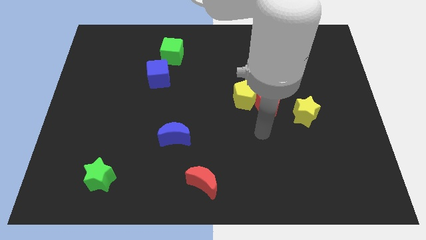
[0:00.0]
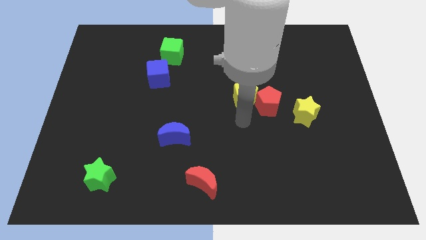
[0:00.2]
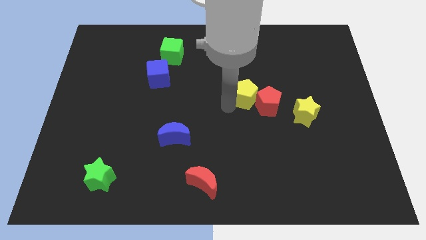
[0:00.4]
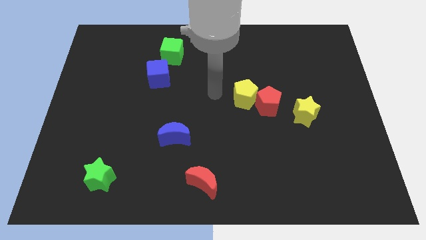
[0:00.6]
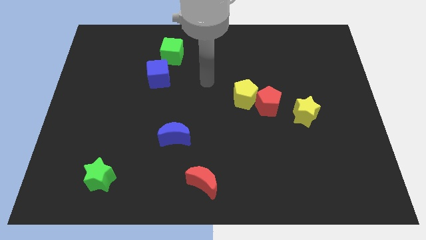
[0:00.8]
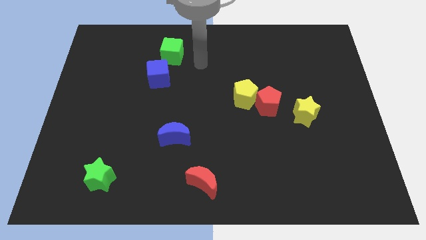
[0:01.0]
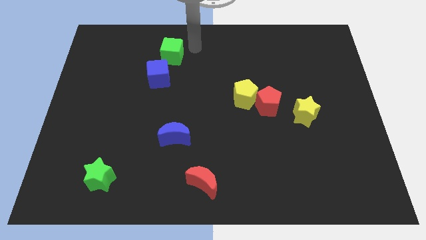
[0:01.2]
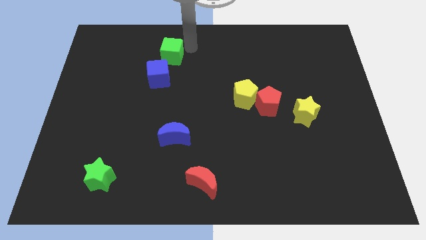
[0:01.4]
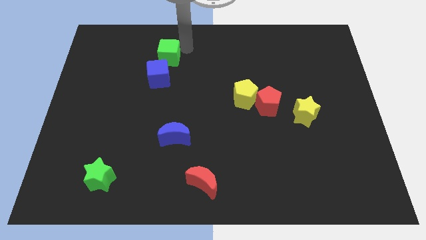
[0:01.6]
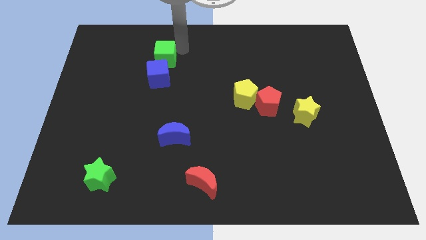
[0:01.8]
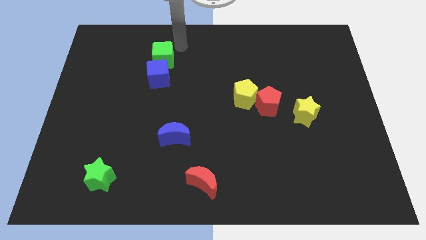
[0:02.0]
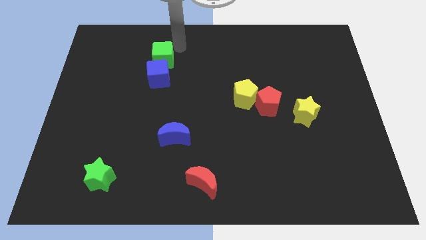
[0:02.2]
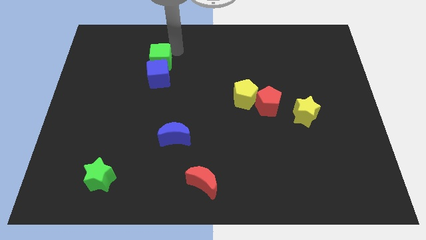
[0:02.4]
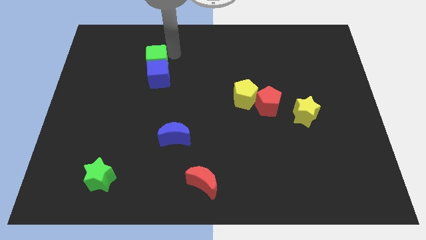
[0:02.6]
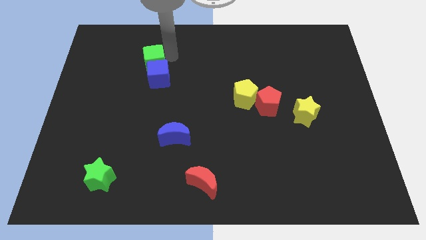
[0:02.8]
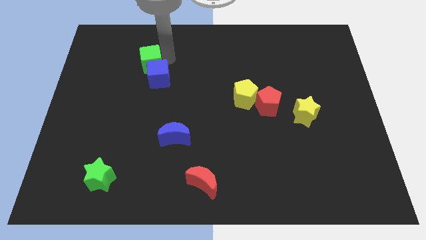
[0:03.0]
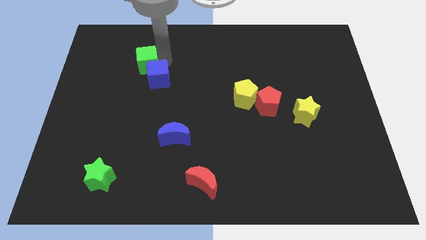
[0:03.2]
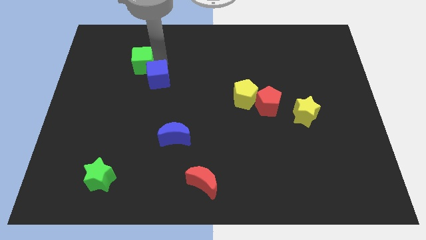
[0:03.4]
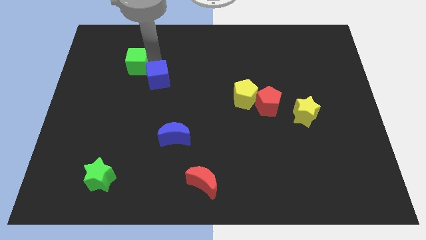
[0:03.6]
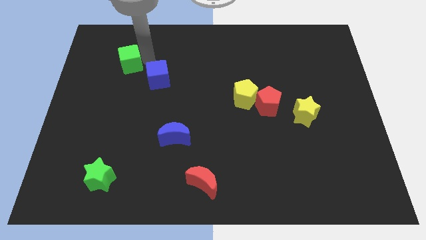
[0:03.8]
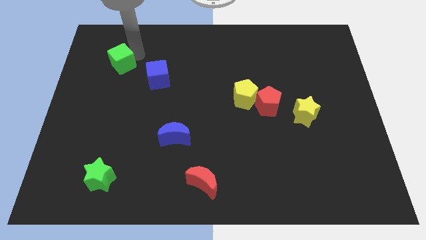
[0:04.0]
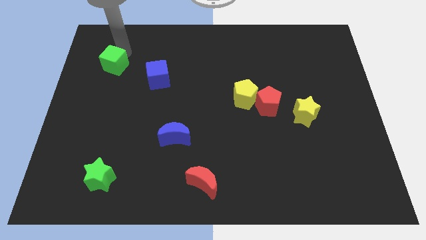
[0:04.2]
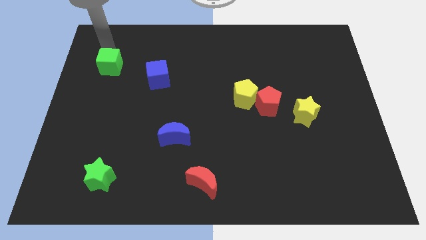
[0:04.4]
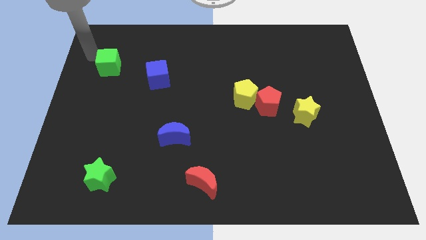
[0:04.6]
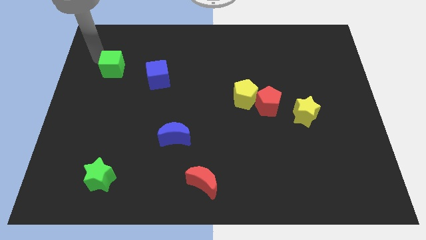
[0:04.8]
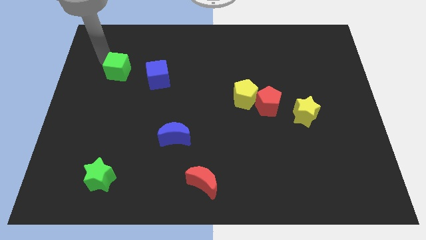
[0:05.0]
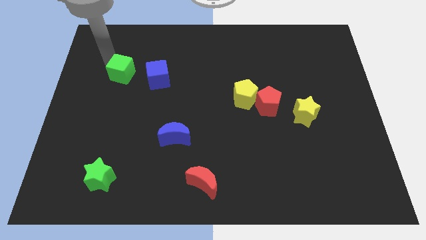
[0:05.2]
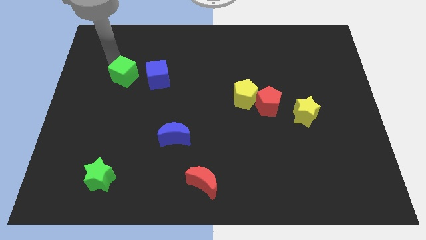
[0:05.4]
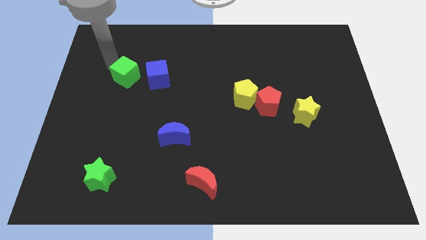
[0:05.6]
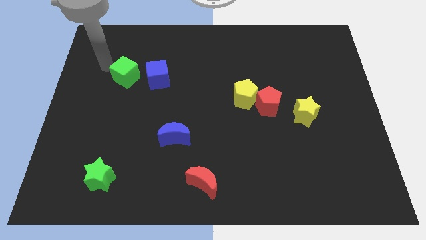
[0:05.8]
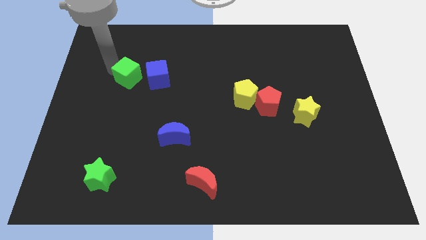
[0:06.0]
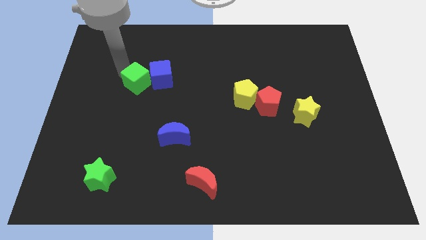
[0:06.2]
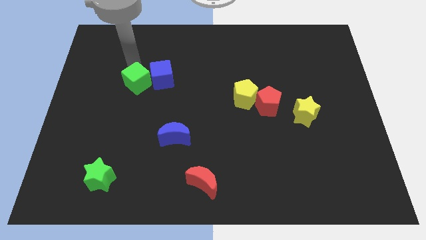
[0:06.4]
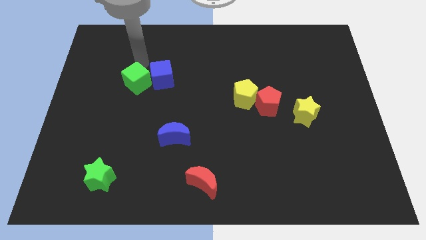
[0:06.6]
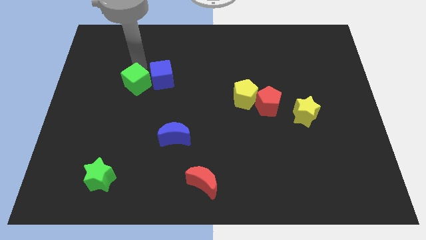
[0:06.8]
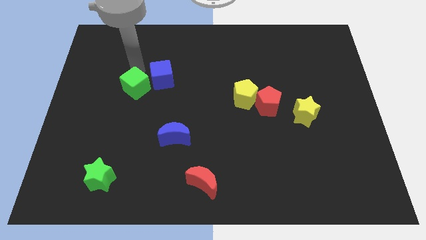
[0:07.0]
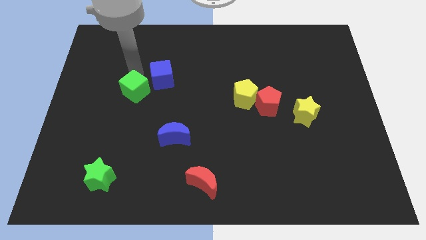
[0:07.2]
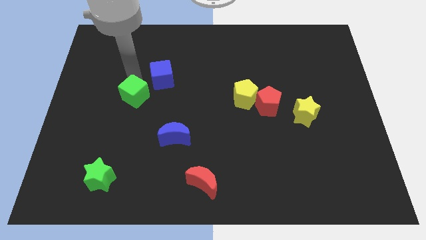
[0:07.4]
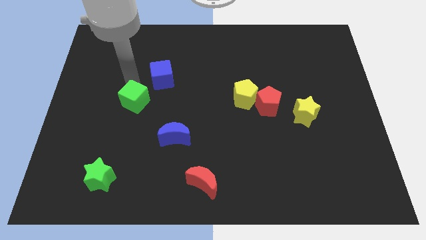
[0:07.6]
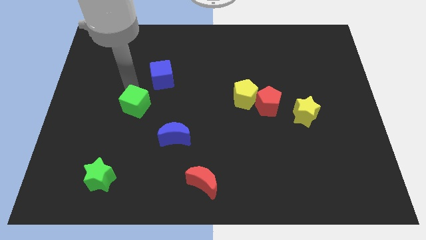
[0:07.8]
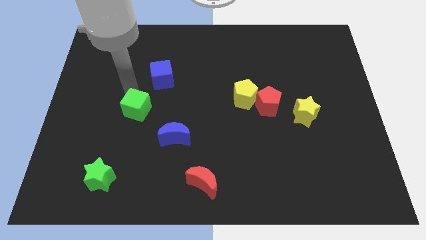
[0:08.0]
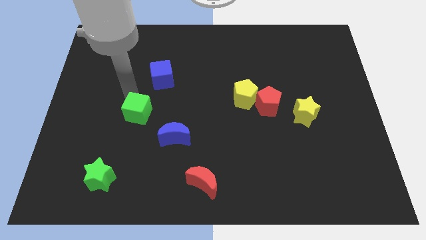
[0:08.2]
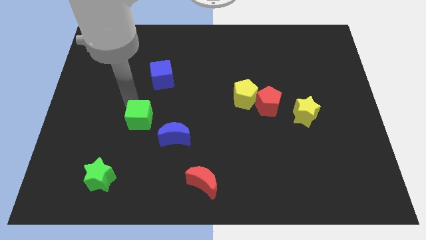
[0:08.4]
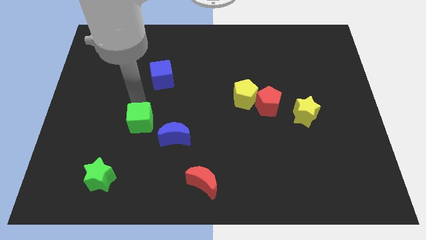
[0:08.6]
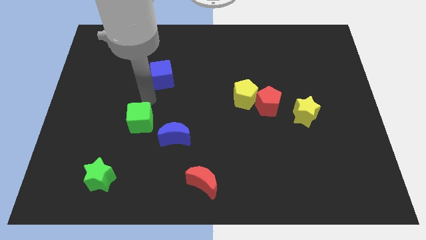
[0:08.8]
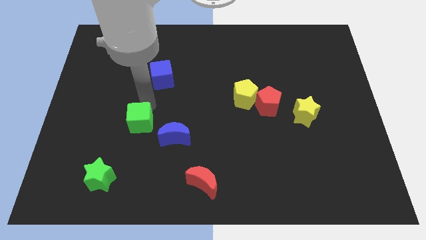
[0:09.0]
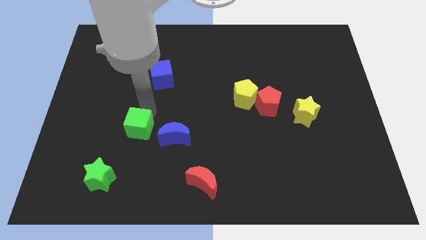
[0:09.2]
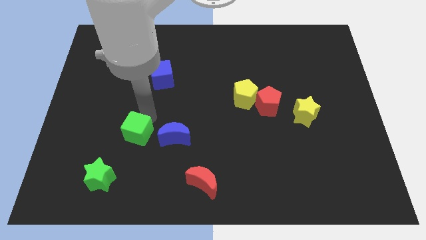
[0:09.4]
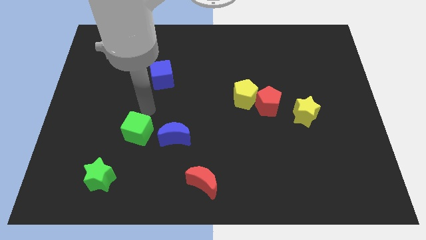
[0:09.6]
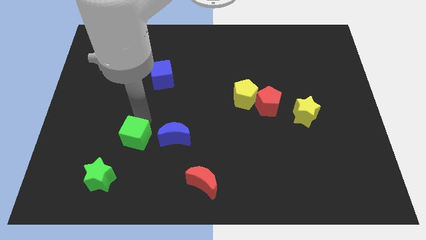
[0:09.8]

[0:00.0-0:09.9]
push the green cube to the top right of the green star

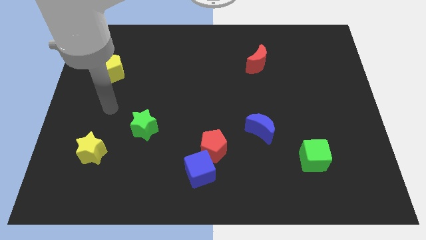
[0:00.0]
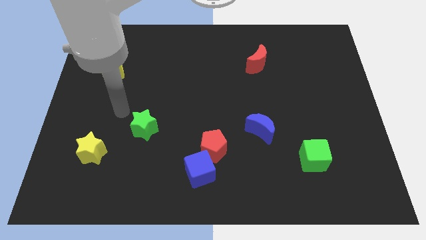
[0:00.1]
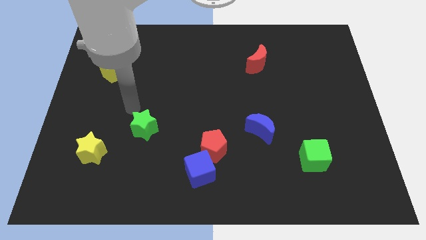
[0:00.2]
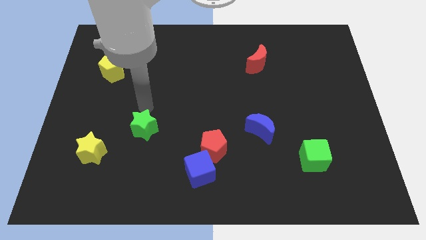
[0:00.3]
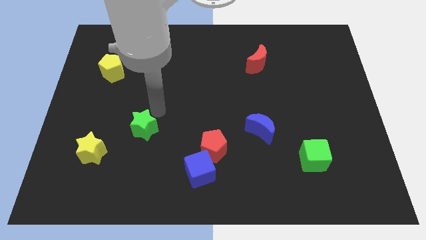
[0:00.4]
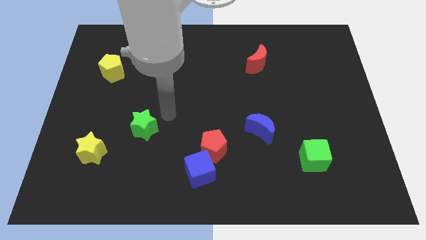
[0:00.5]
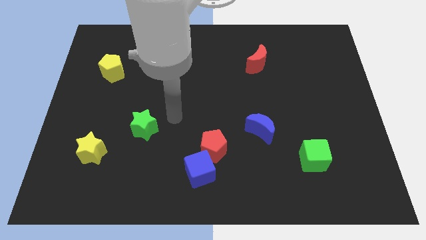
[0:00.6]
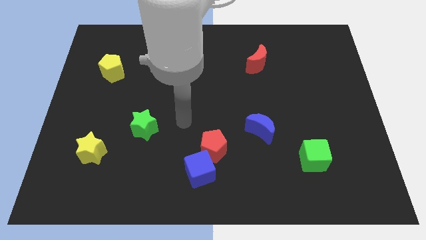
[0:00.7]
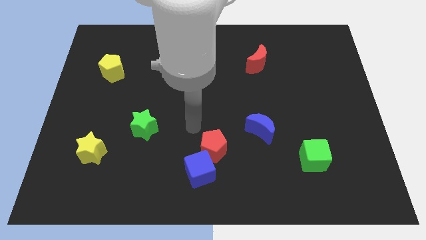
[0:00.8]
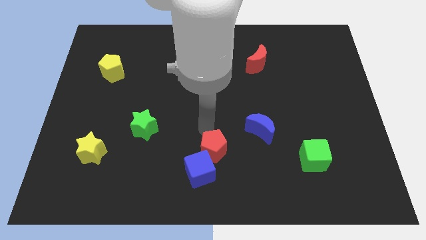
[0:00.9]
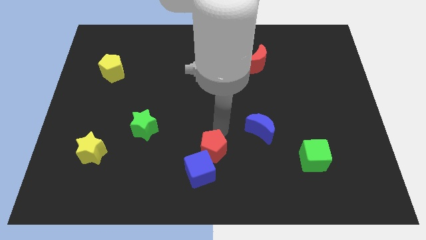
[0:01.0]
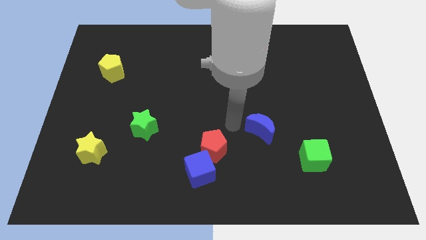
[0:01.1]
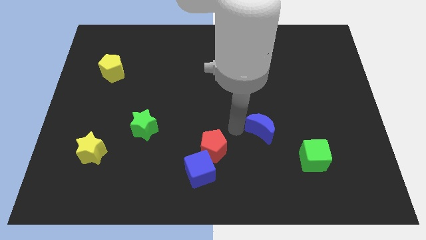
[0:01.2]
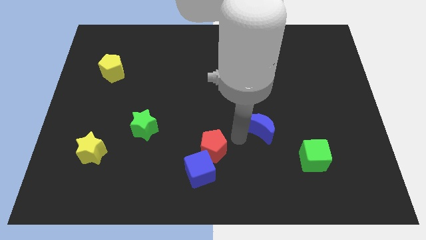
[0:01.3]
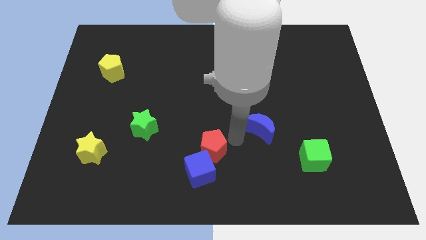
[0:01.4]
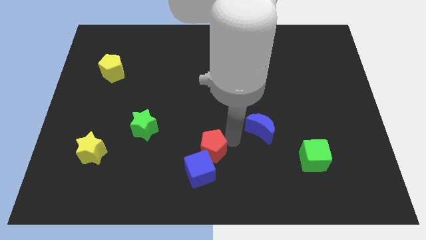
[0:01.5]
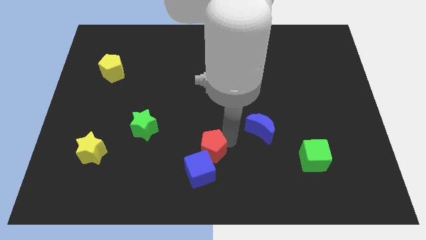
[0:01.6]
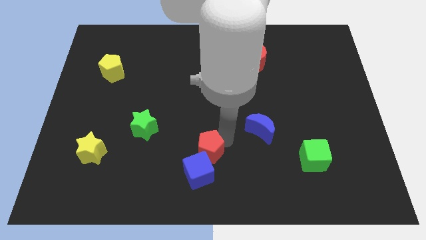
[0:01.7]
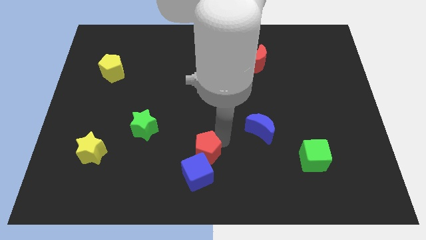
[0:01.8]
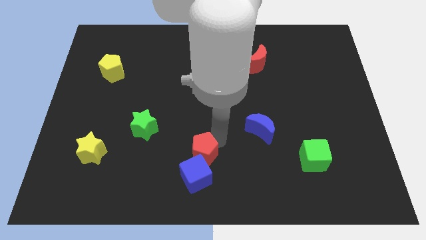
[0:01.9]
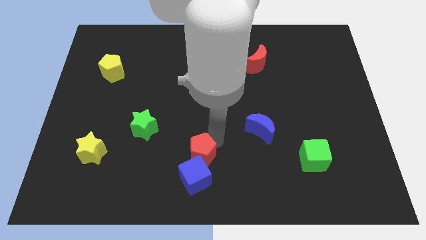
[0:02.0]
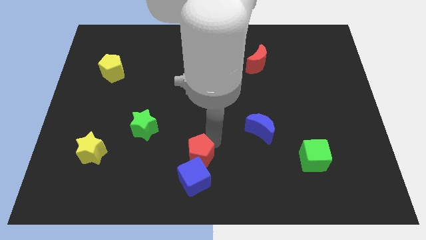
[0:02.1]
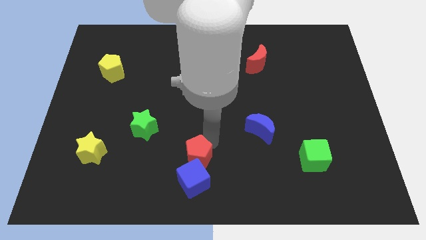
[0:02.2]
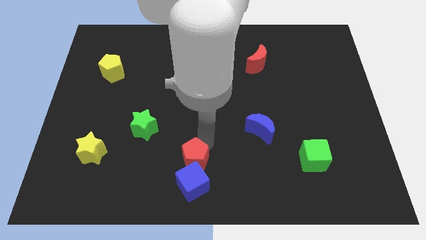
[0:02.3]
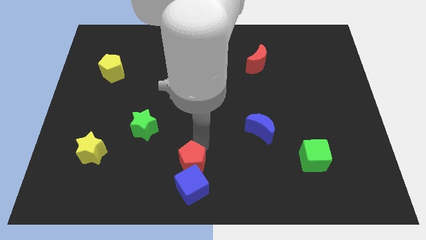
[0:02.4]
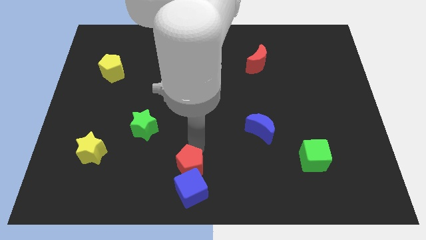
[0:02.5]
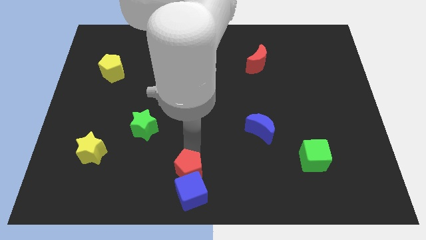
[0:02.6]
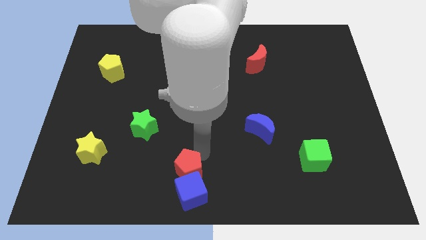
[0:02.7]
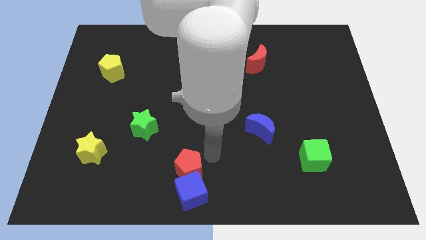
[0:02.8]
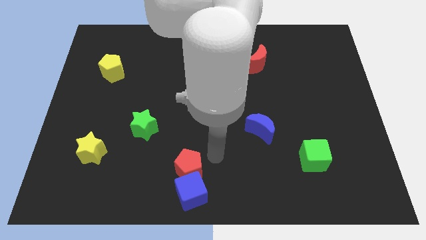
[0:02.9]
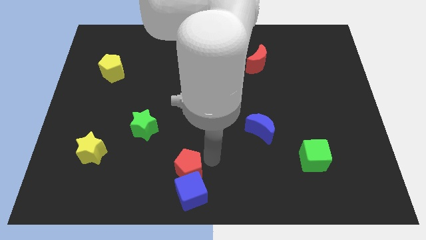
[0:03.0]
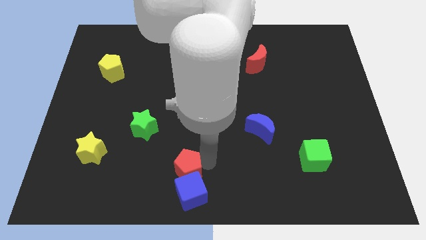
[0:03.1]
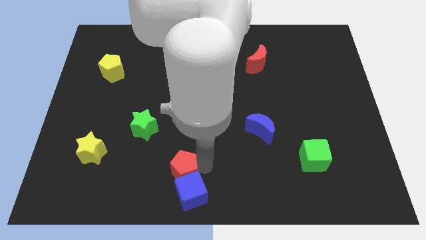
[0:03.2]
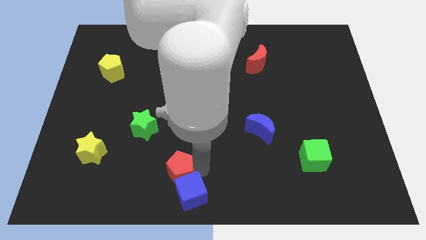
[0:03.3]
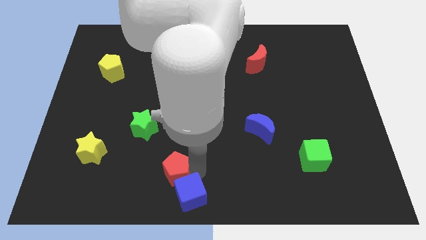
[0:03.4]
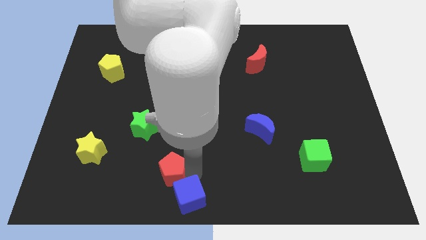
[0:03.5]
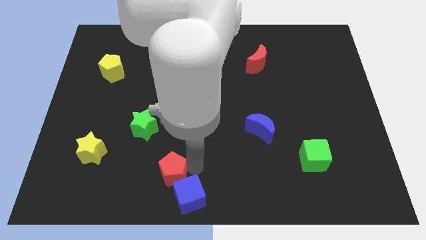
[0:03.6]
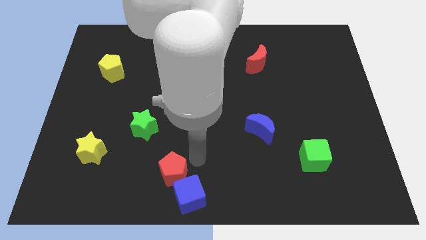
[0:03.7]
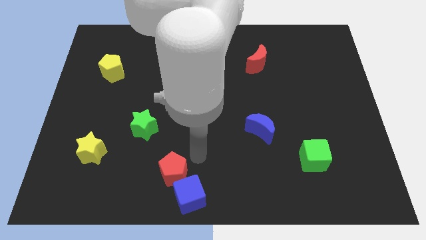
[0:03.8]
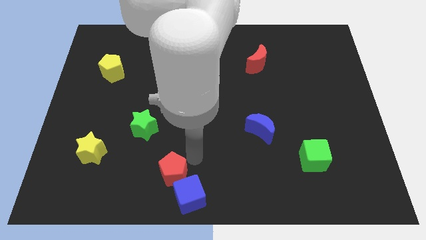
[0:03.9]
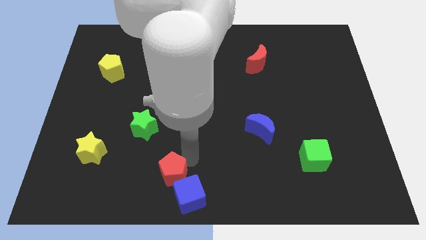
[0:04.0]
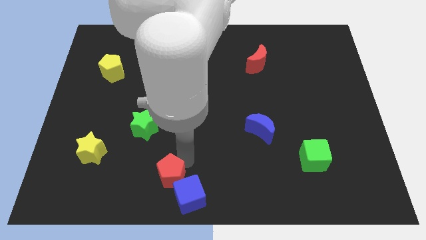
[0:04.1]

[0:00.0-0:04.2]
put the red pentagon just left of the blue cube
